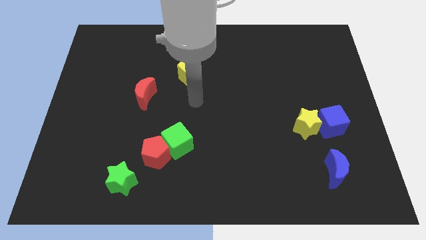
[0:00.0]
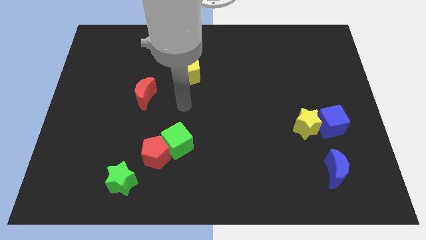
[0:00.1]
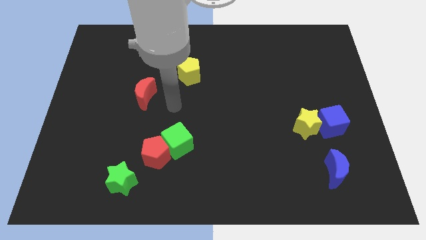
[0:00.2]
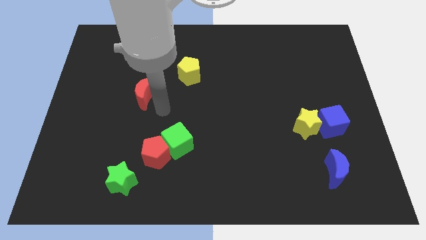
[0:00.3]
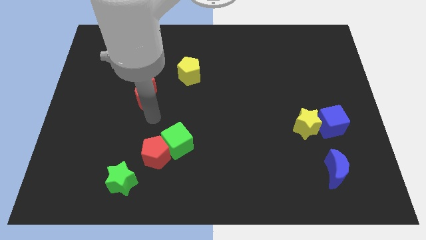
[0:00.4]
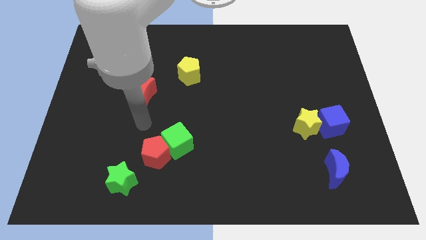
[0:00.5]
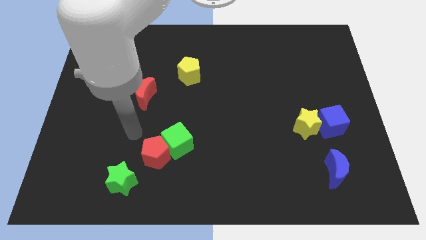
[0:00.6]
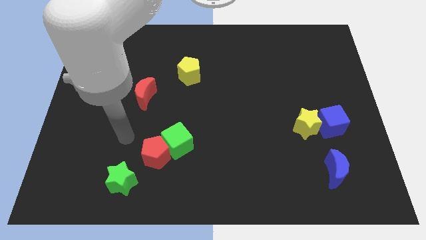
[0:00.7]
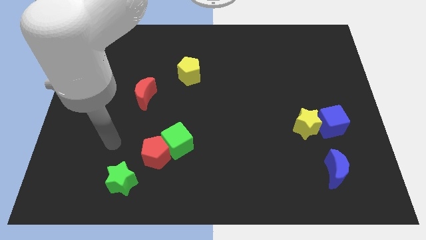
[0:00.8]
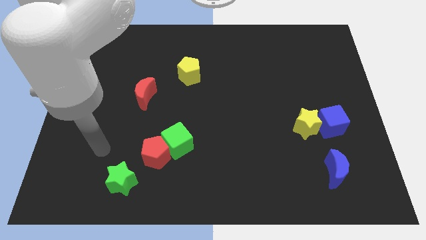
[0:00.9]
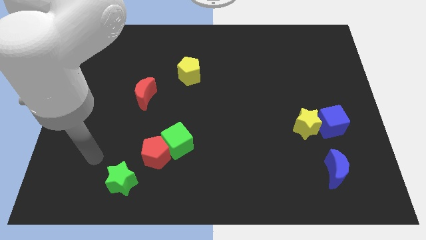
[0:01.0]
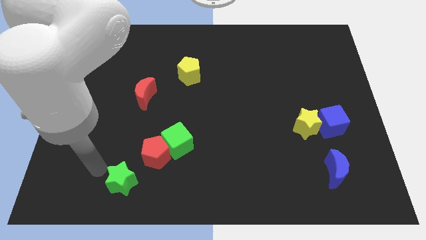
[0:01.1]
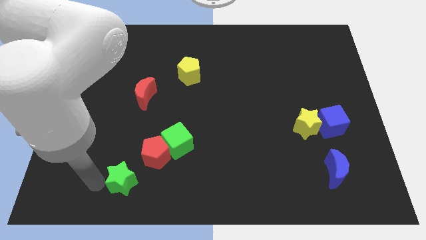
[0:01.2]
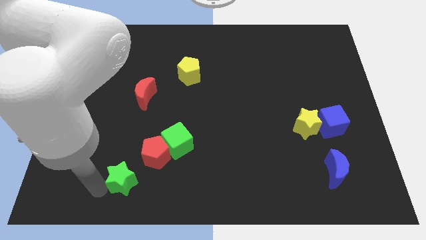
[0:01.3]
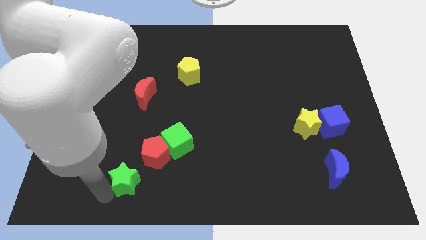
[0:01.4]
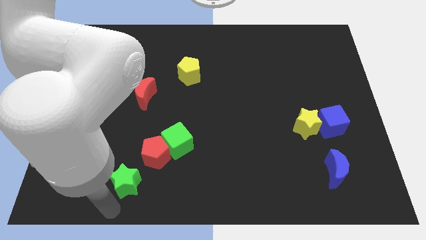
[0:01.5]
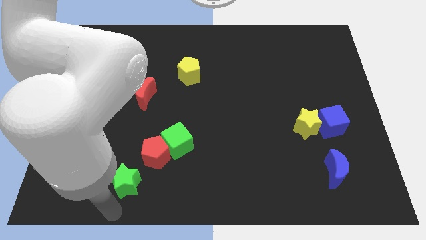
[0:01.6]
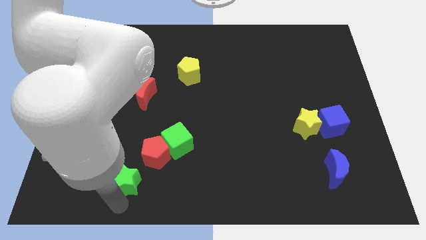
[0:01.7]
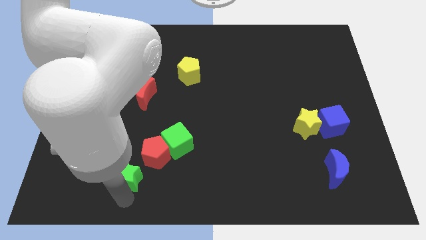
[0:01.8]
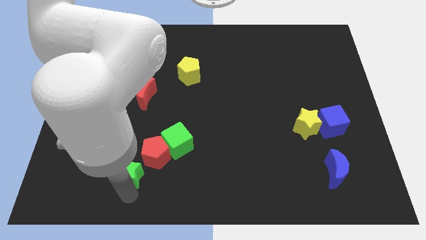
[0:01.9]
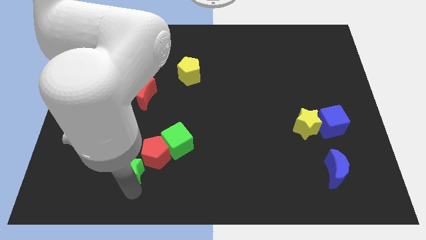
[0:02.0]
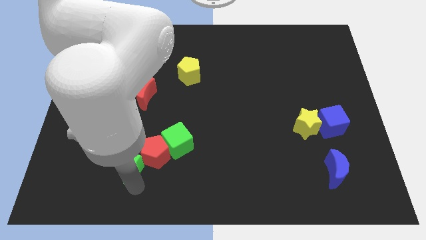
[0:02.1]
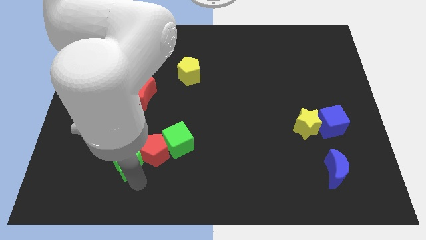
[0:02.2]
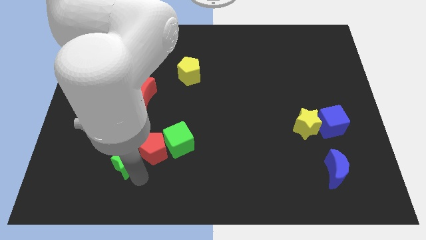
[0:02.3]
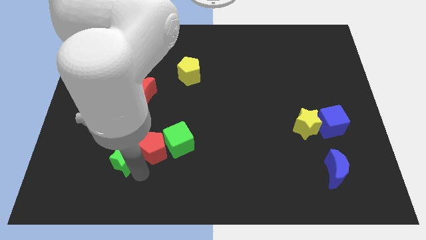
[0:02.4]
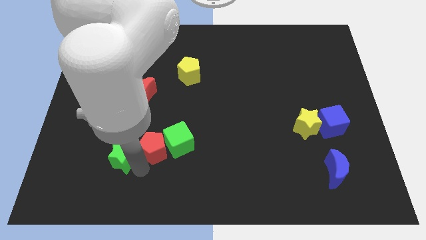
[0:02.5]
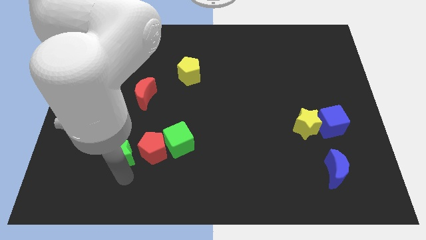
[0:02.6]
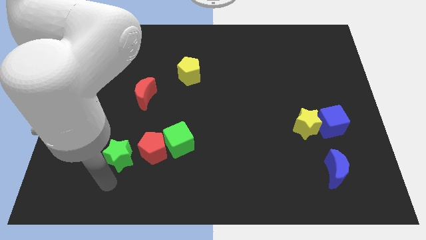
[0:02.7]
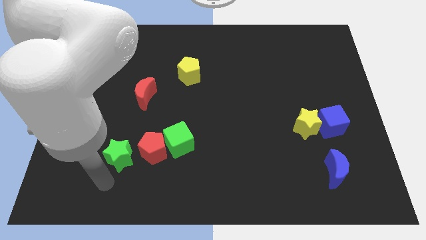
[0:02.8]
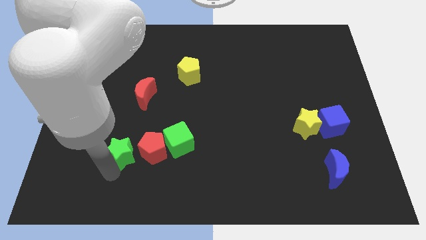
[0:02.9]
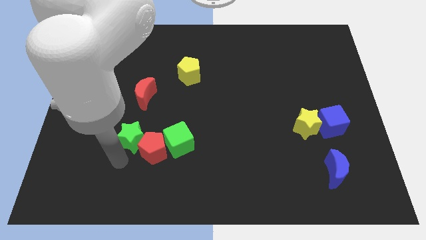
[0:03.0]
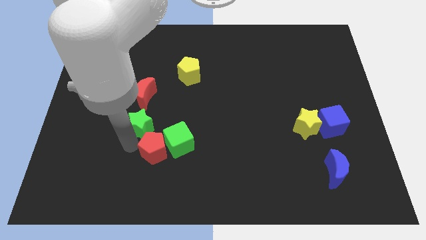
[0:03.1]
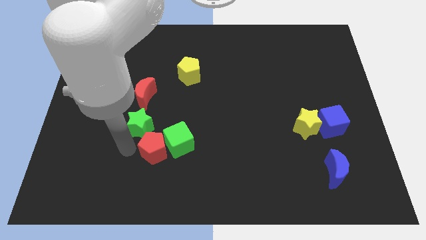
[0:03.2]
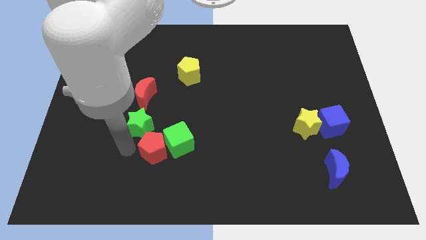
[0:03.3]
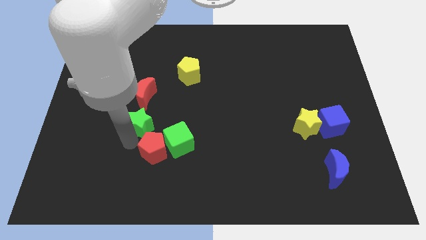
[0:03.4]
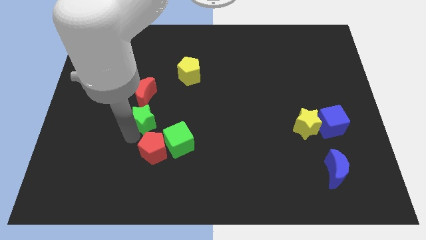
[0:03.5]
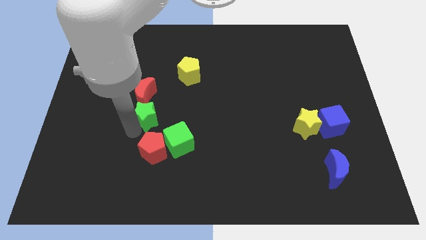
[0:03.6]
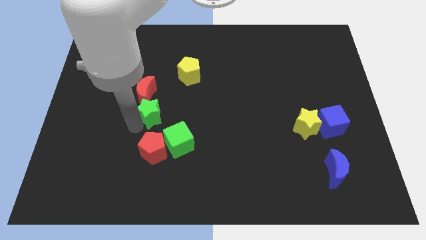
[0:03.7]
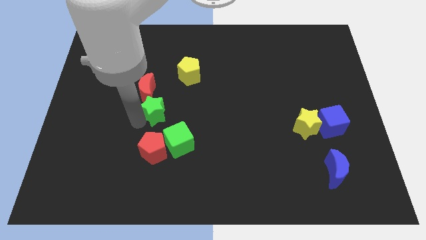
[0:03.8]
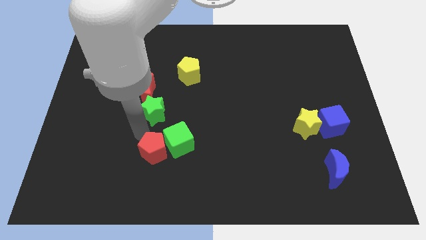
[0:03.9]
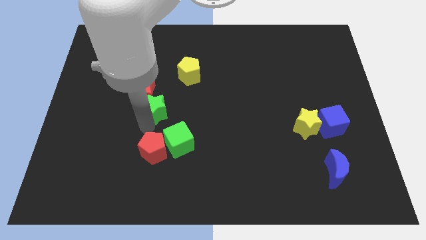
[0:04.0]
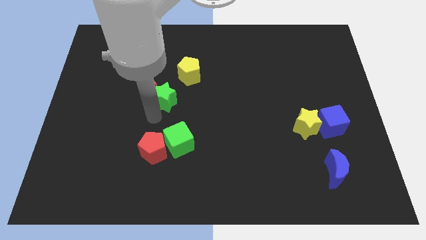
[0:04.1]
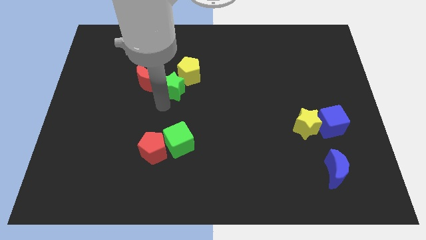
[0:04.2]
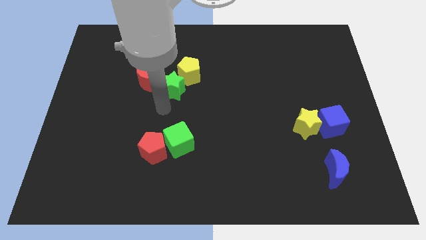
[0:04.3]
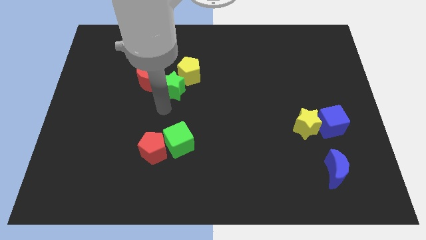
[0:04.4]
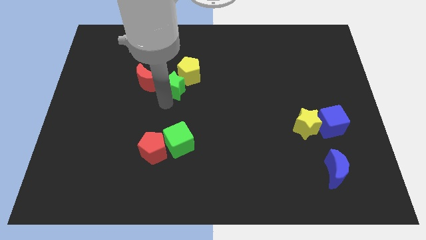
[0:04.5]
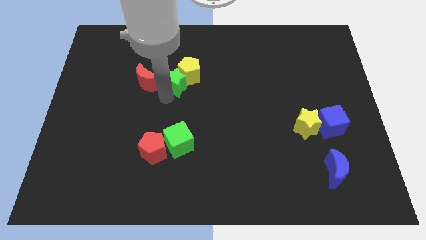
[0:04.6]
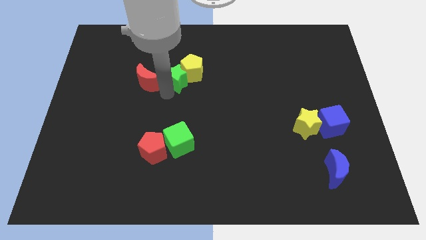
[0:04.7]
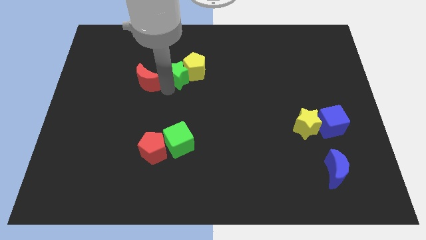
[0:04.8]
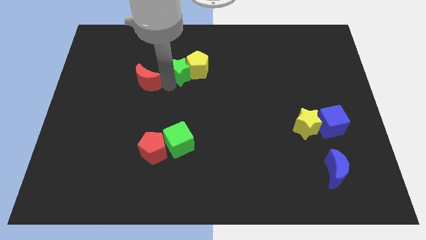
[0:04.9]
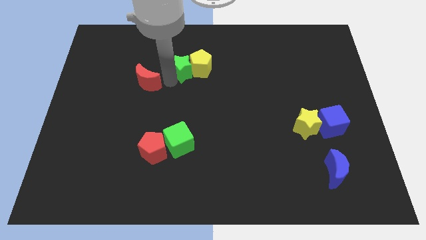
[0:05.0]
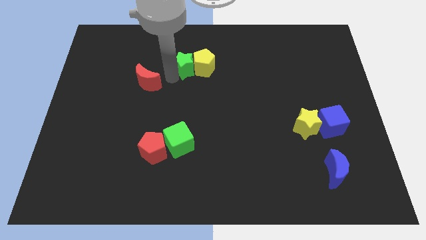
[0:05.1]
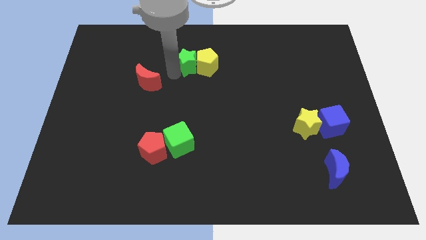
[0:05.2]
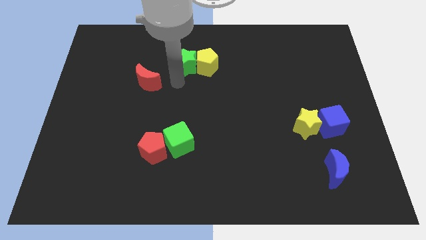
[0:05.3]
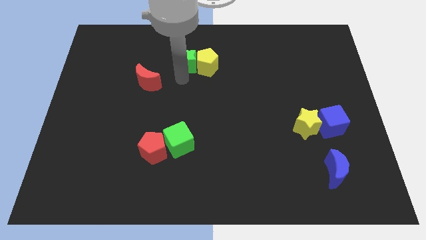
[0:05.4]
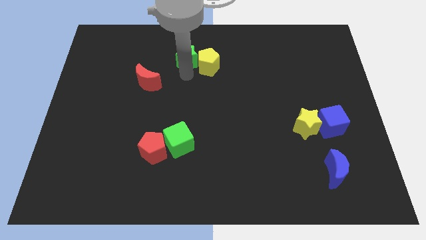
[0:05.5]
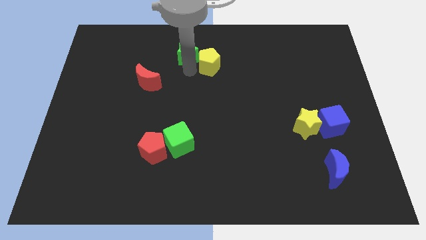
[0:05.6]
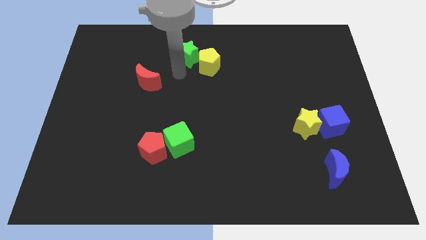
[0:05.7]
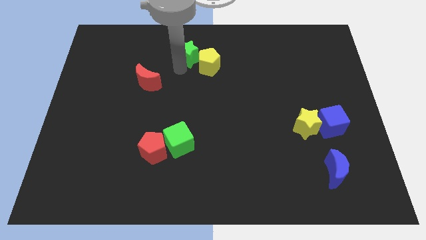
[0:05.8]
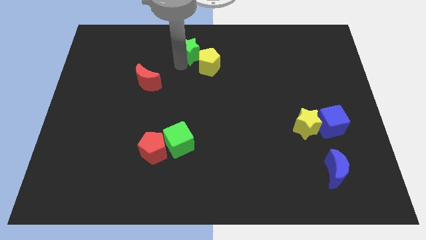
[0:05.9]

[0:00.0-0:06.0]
slide the green star to the towards your base
